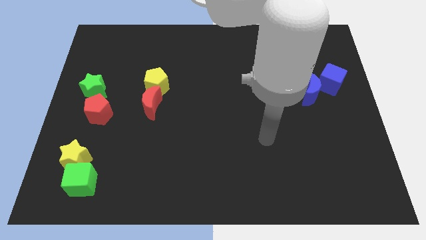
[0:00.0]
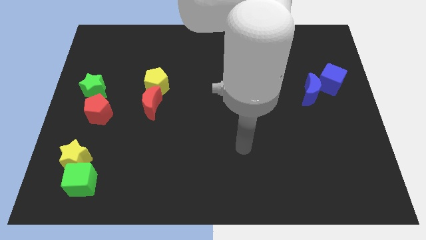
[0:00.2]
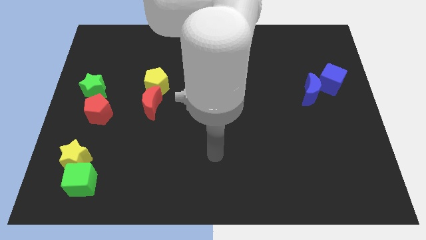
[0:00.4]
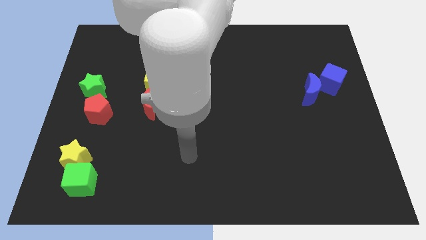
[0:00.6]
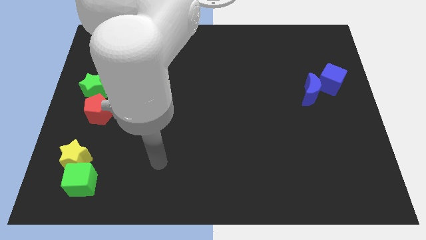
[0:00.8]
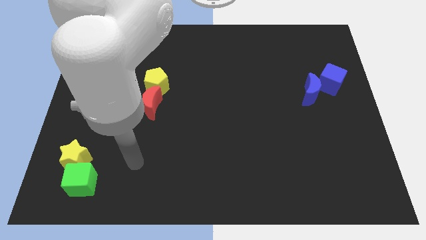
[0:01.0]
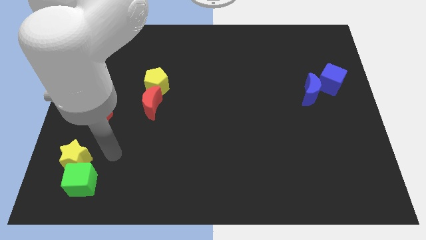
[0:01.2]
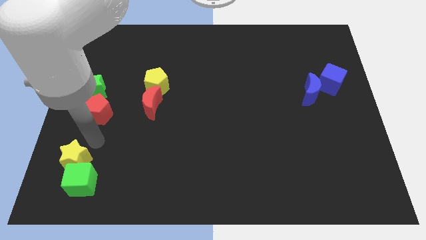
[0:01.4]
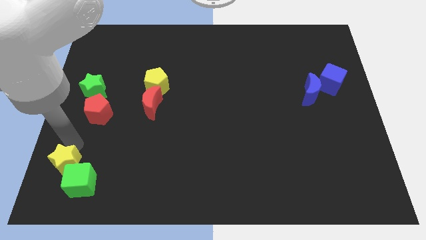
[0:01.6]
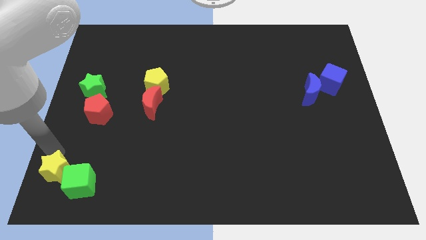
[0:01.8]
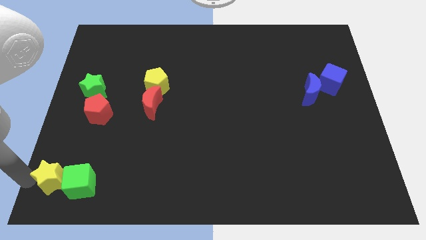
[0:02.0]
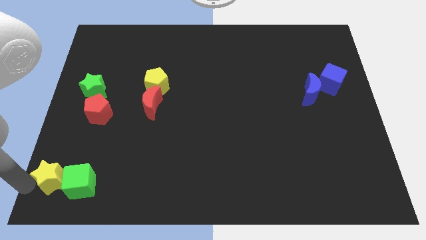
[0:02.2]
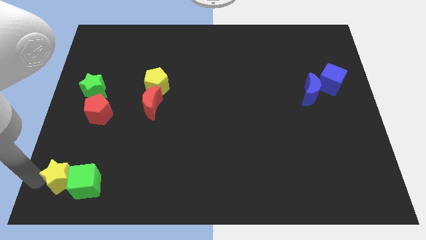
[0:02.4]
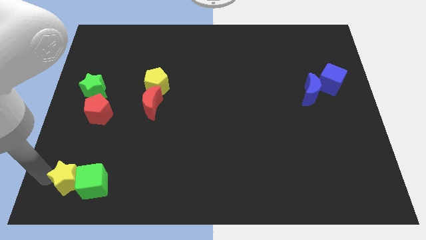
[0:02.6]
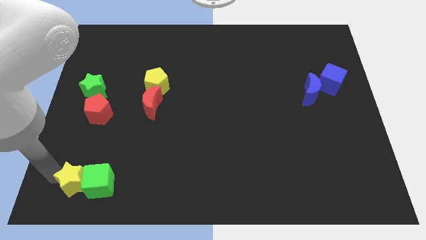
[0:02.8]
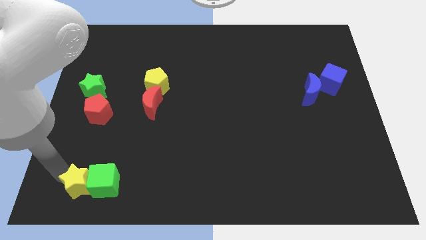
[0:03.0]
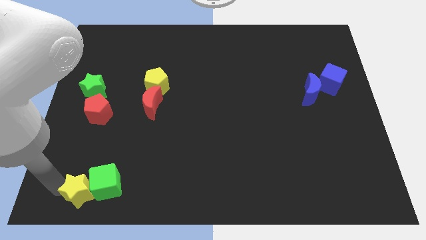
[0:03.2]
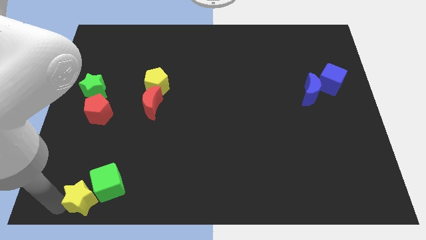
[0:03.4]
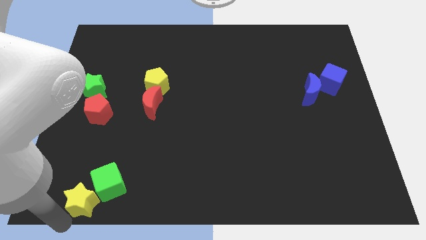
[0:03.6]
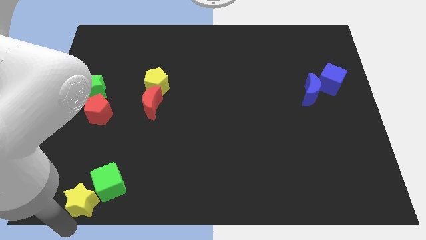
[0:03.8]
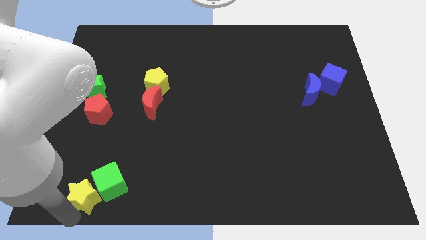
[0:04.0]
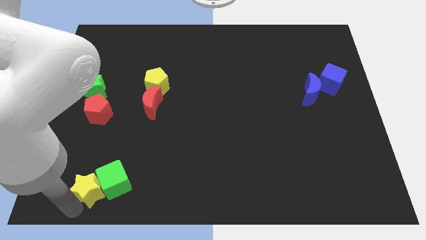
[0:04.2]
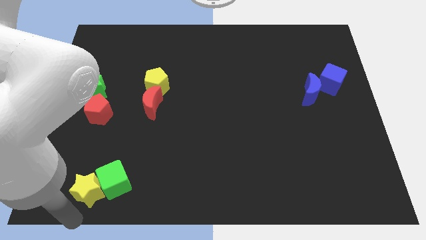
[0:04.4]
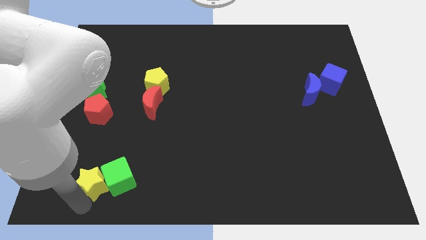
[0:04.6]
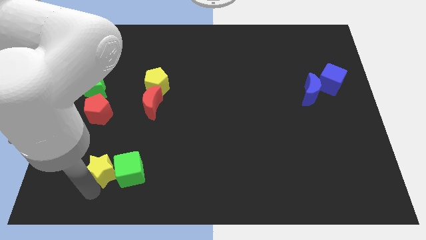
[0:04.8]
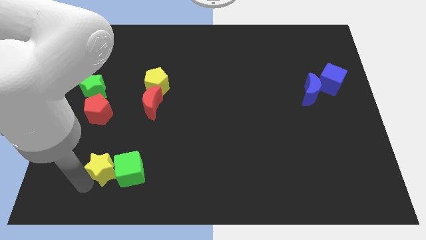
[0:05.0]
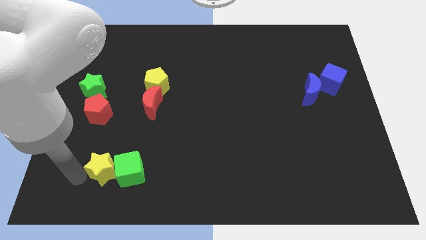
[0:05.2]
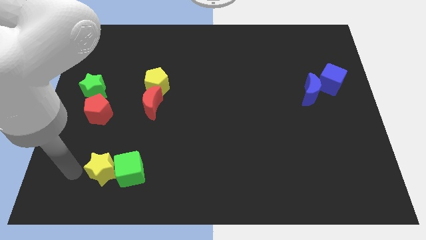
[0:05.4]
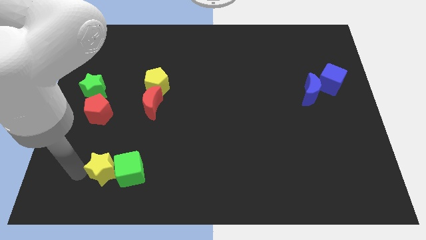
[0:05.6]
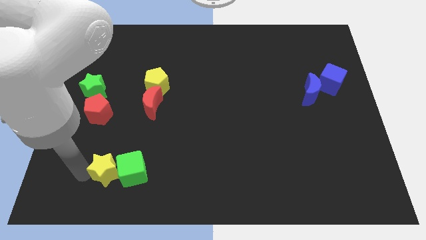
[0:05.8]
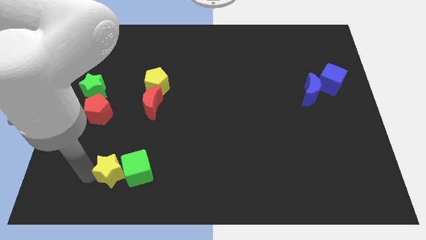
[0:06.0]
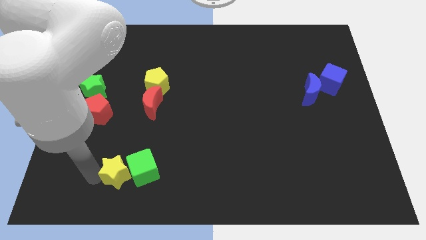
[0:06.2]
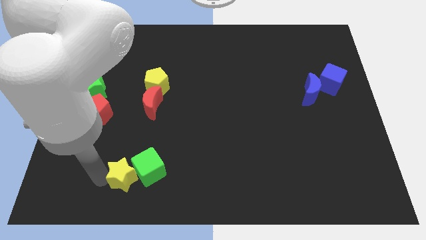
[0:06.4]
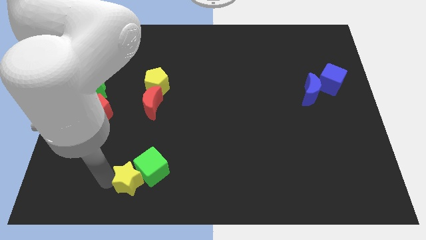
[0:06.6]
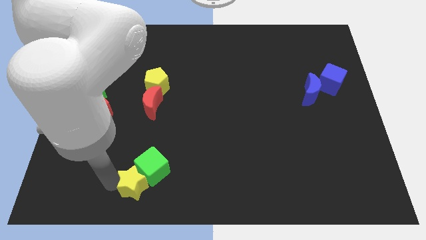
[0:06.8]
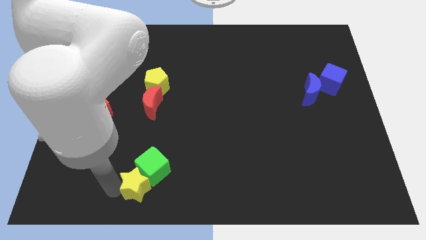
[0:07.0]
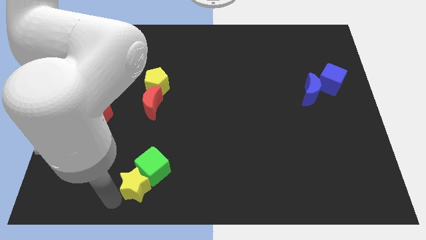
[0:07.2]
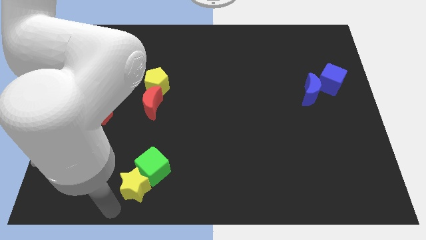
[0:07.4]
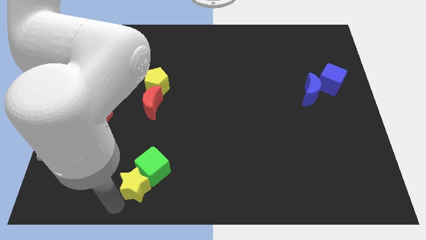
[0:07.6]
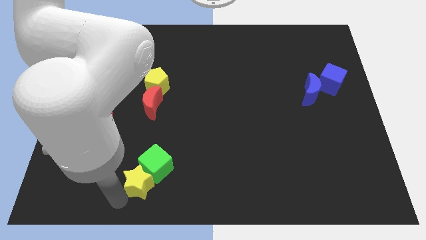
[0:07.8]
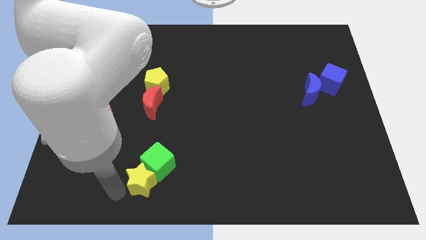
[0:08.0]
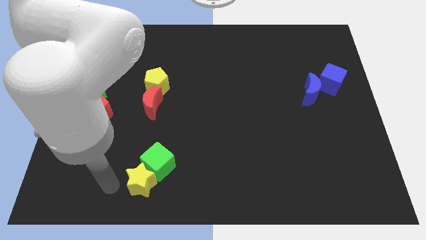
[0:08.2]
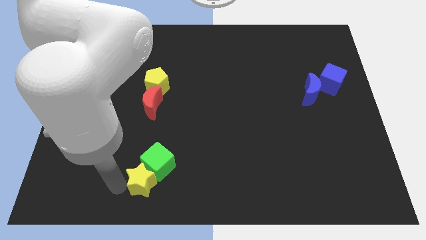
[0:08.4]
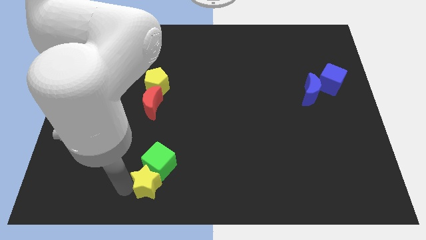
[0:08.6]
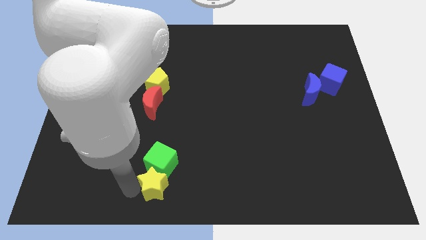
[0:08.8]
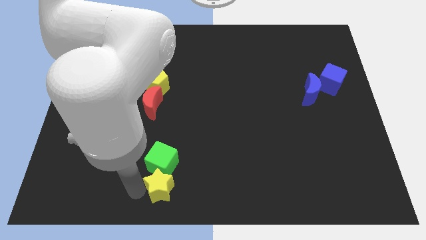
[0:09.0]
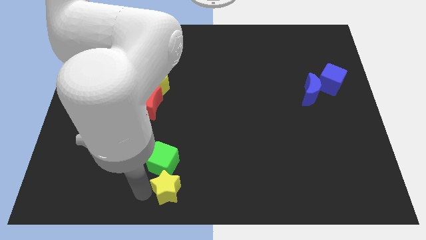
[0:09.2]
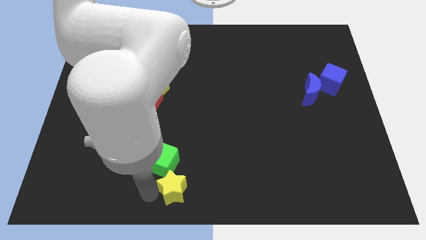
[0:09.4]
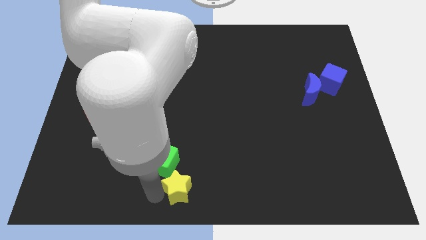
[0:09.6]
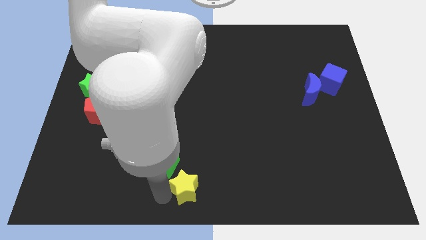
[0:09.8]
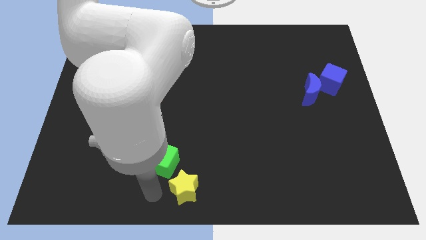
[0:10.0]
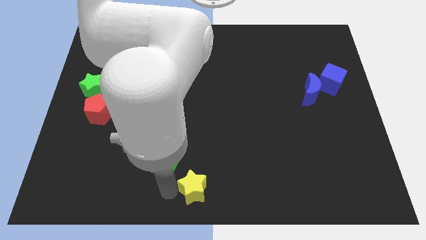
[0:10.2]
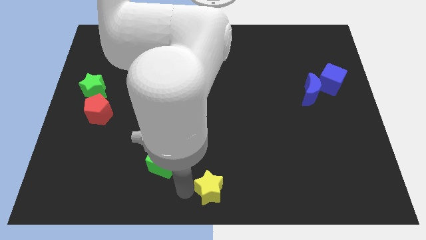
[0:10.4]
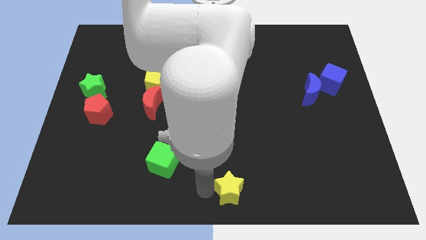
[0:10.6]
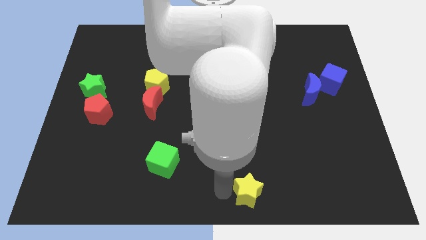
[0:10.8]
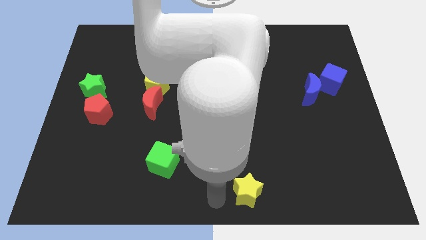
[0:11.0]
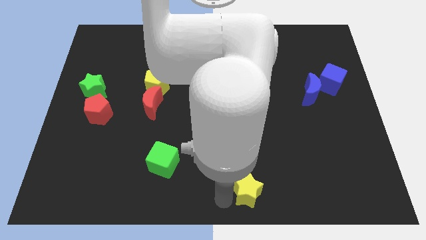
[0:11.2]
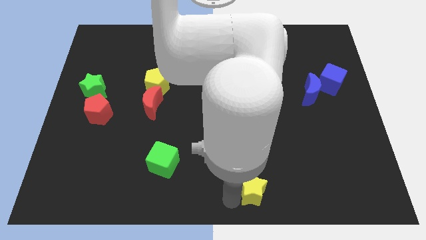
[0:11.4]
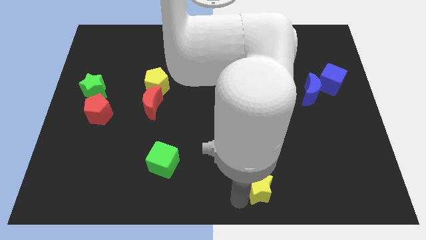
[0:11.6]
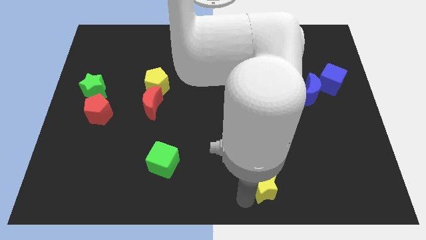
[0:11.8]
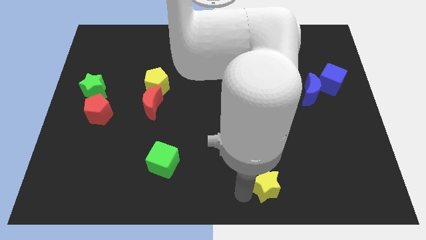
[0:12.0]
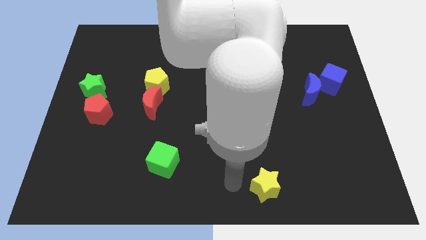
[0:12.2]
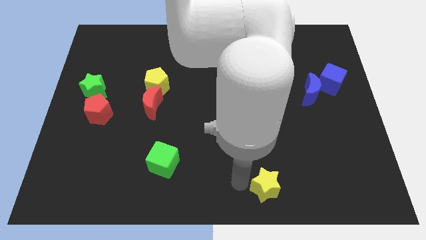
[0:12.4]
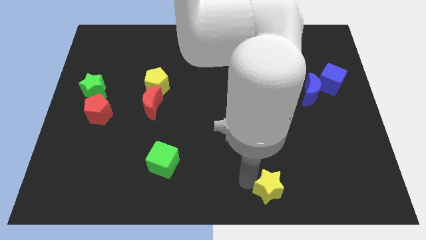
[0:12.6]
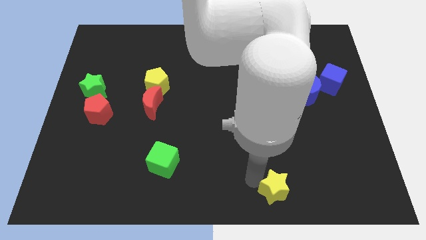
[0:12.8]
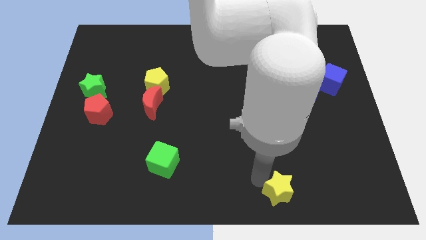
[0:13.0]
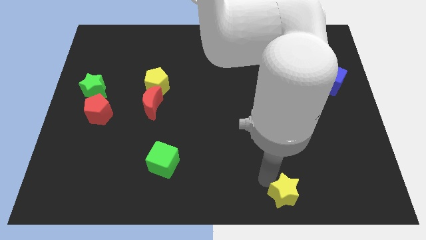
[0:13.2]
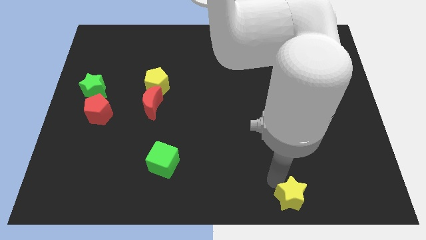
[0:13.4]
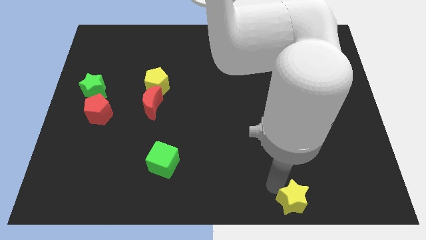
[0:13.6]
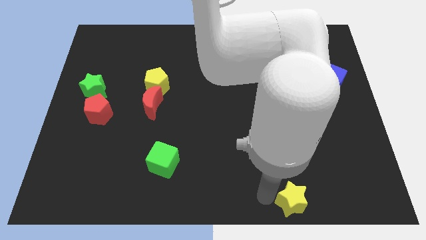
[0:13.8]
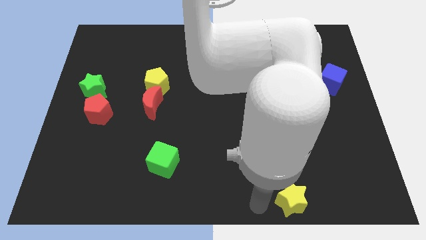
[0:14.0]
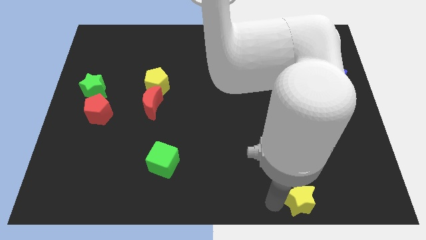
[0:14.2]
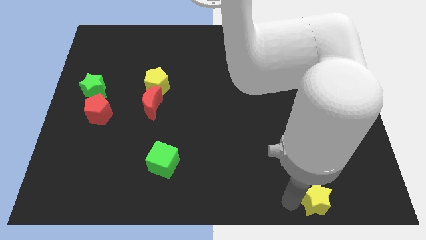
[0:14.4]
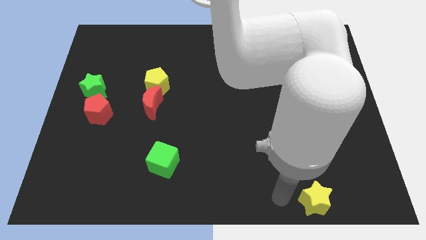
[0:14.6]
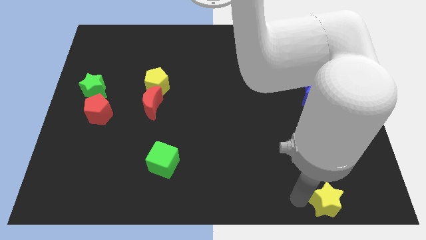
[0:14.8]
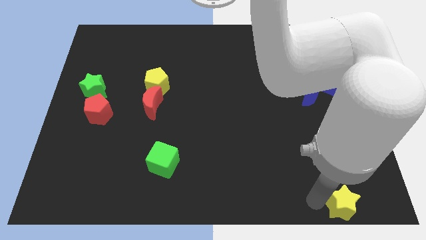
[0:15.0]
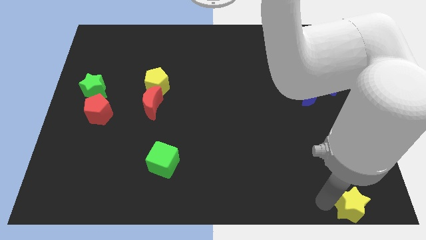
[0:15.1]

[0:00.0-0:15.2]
slide the yellow star to the bottom right corner

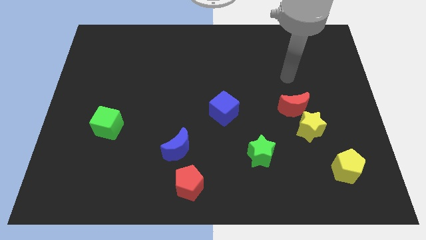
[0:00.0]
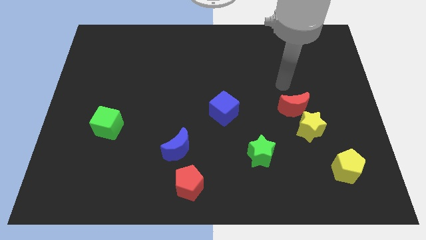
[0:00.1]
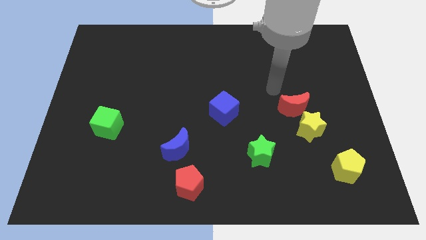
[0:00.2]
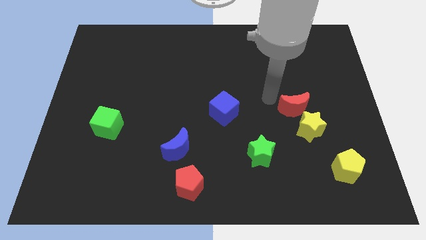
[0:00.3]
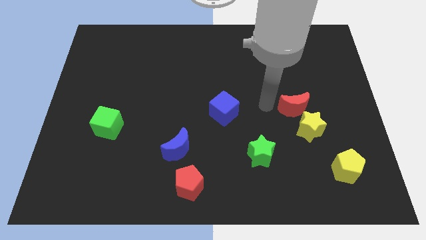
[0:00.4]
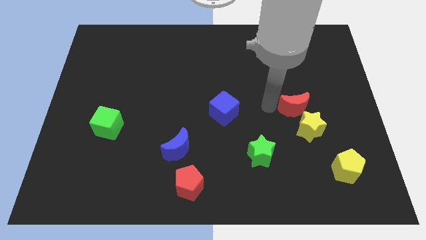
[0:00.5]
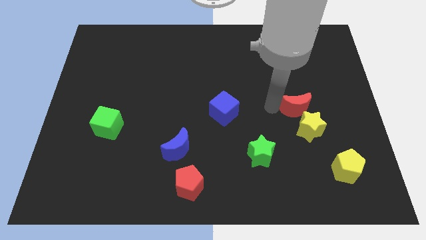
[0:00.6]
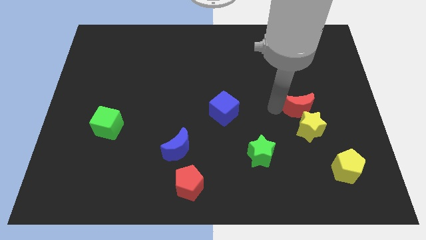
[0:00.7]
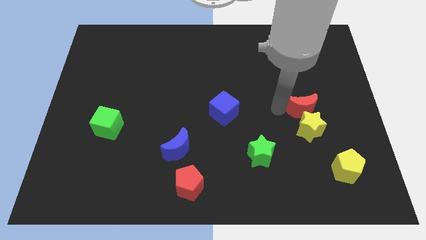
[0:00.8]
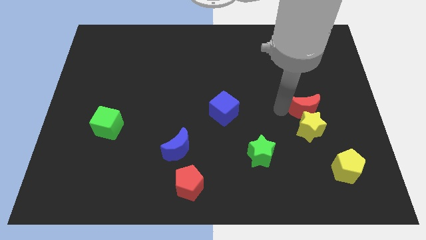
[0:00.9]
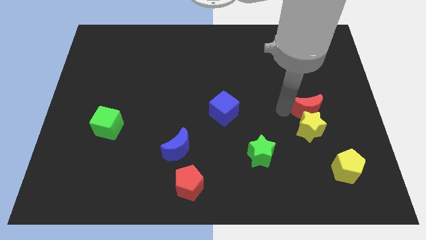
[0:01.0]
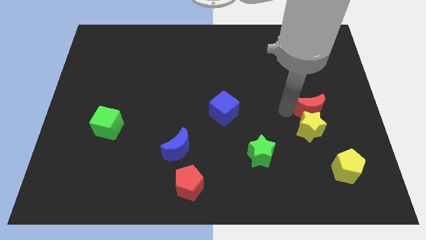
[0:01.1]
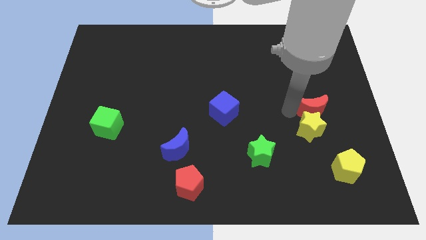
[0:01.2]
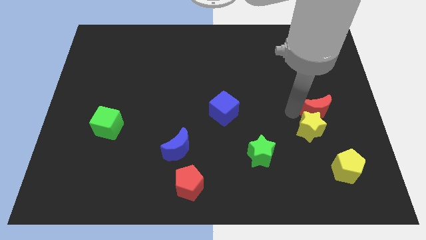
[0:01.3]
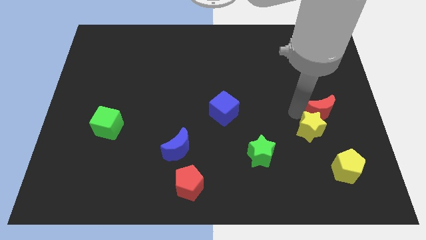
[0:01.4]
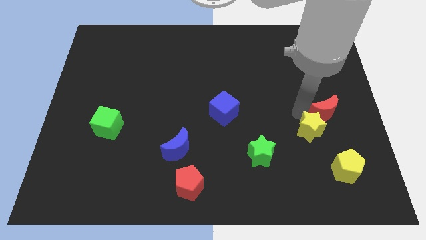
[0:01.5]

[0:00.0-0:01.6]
put the red moon to the right side
